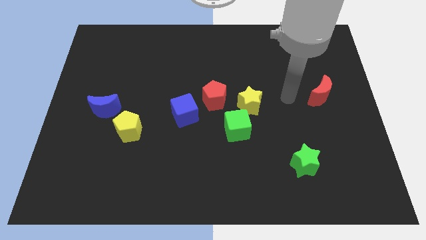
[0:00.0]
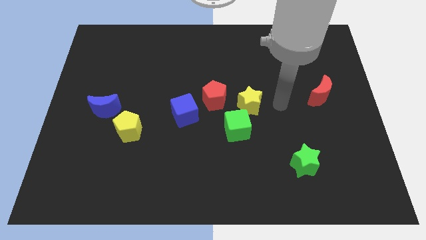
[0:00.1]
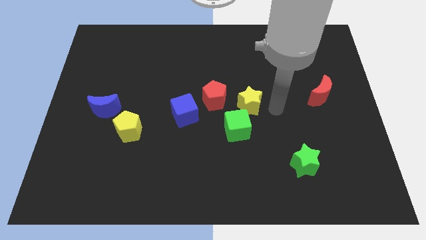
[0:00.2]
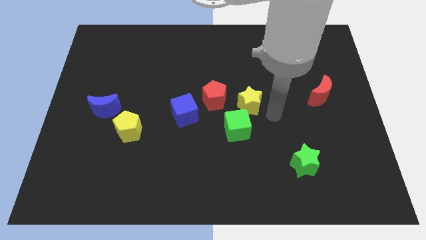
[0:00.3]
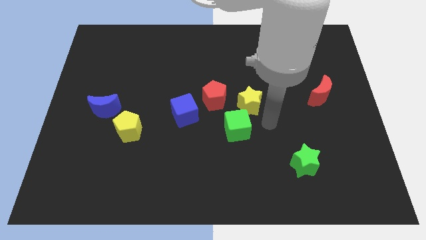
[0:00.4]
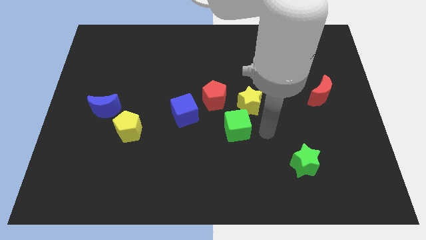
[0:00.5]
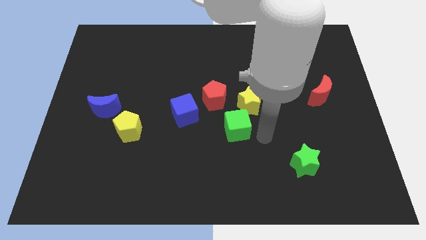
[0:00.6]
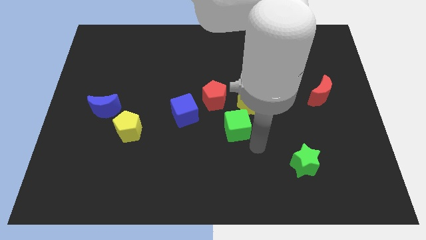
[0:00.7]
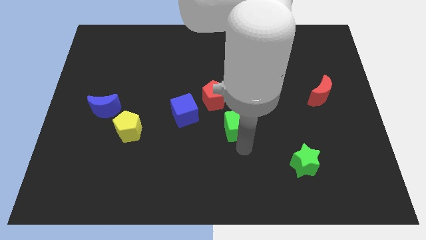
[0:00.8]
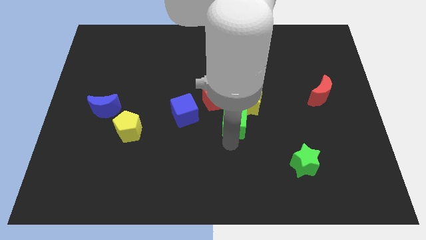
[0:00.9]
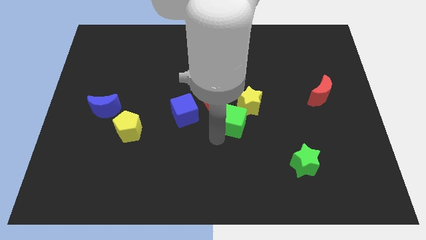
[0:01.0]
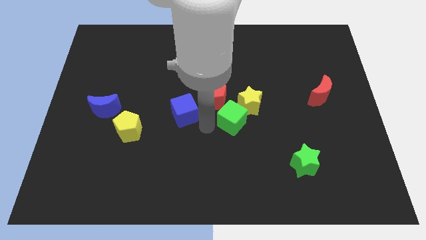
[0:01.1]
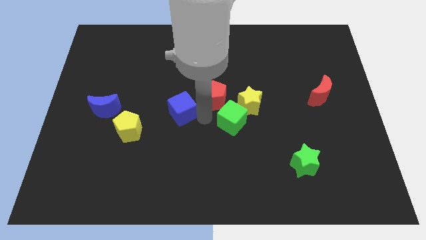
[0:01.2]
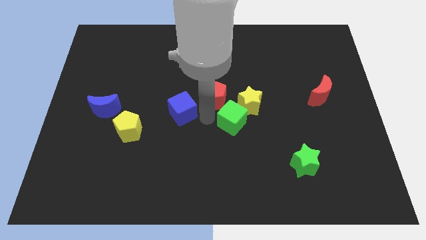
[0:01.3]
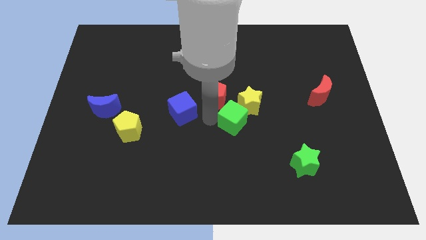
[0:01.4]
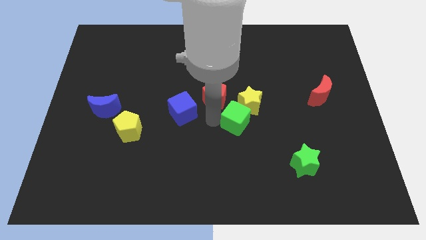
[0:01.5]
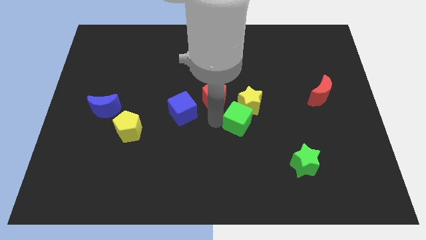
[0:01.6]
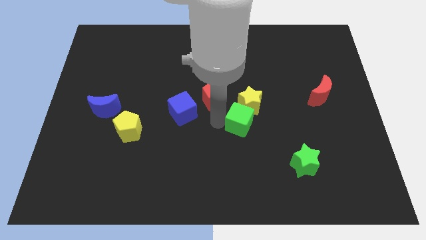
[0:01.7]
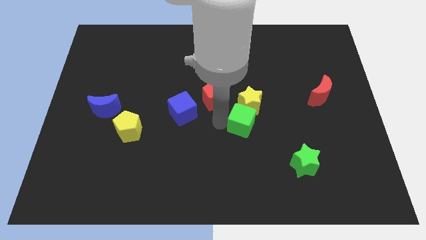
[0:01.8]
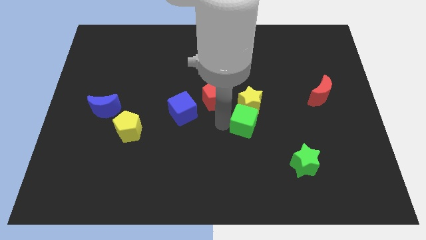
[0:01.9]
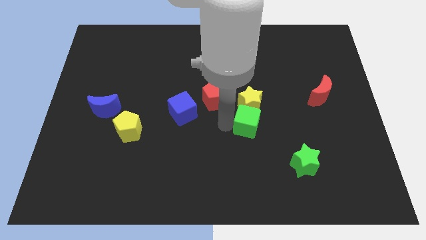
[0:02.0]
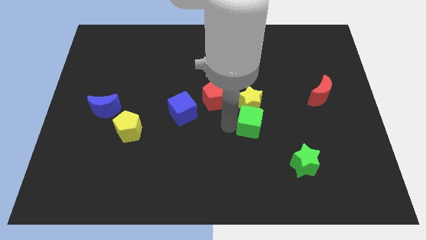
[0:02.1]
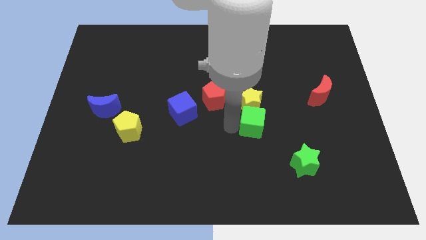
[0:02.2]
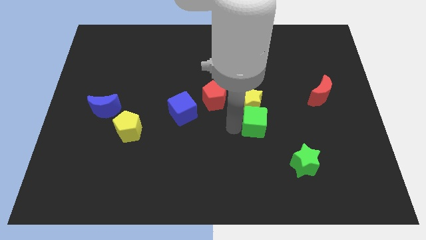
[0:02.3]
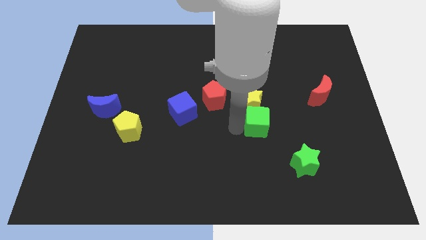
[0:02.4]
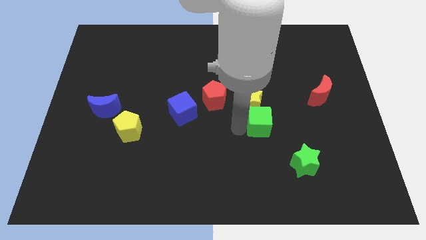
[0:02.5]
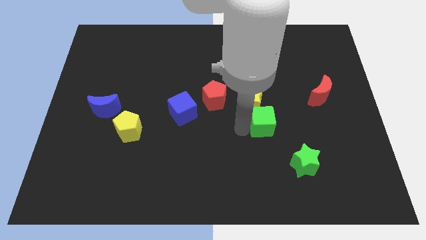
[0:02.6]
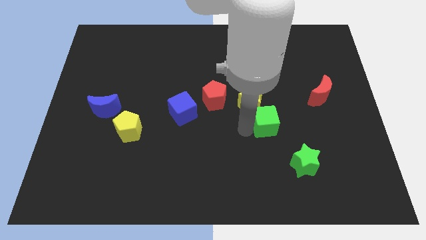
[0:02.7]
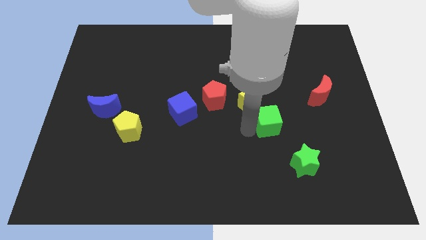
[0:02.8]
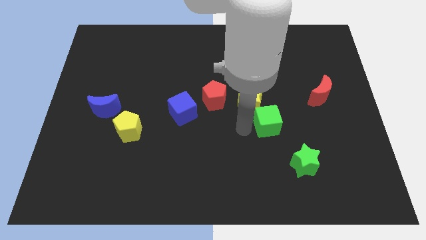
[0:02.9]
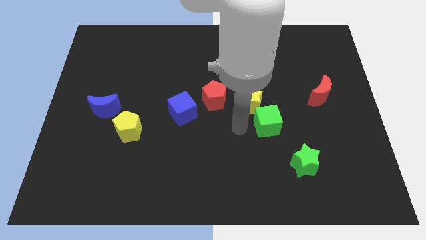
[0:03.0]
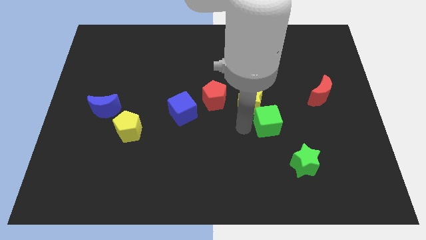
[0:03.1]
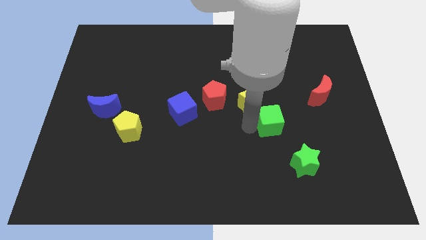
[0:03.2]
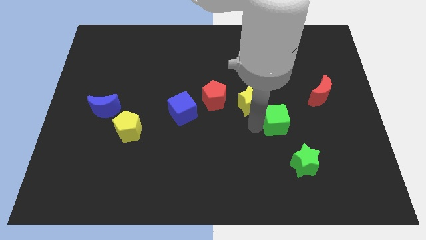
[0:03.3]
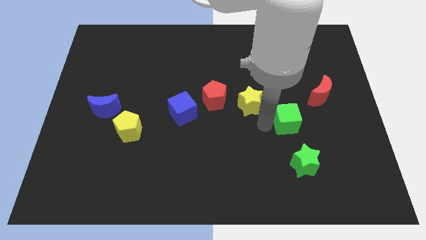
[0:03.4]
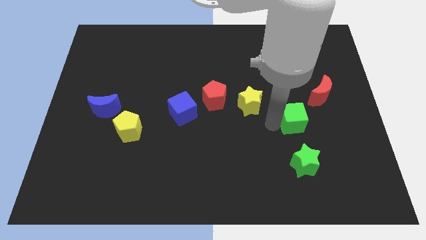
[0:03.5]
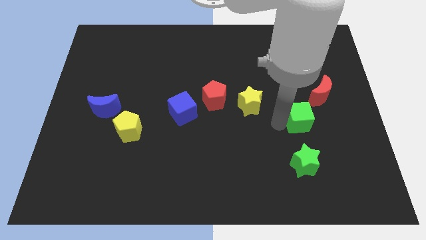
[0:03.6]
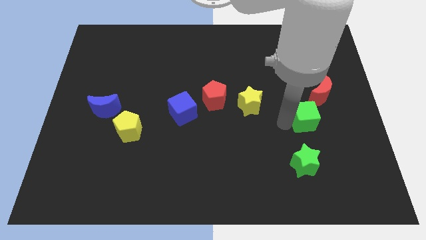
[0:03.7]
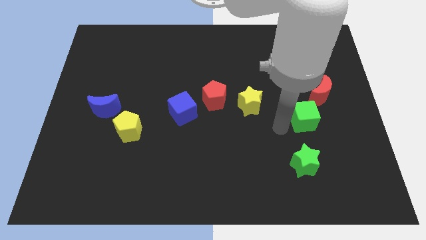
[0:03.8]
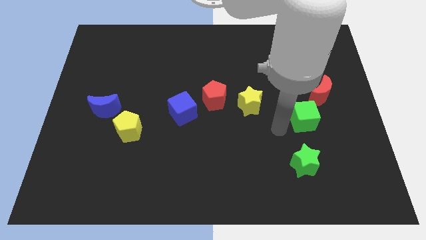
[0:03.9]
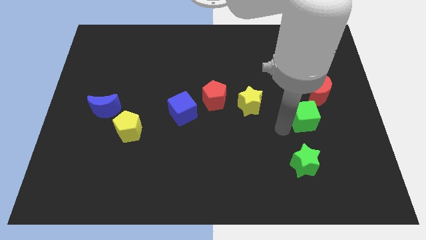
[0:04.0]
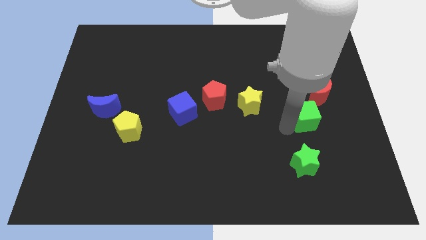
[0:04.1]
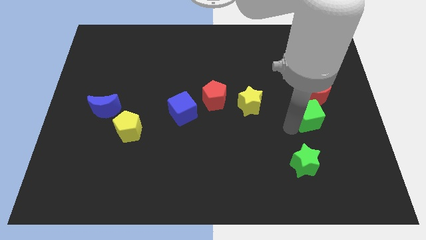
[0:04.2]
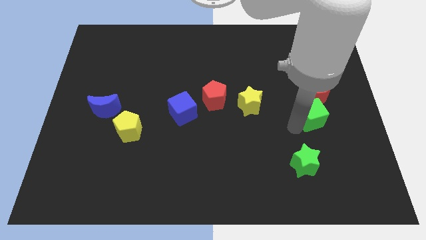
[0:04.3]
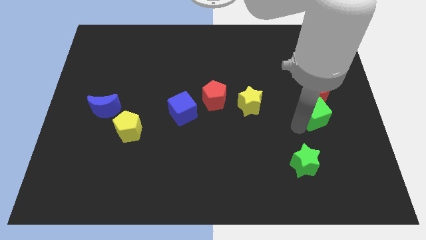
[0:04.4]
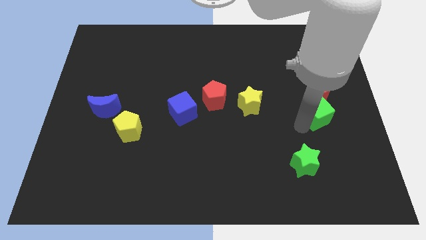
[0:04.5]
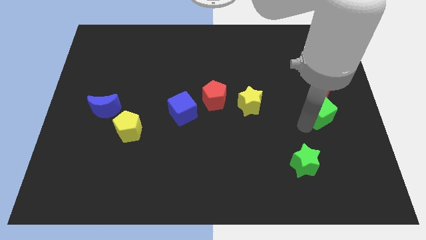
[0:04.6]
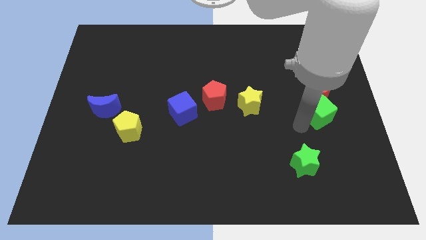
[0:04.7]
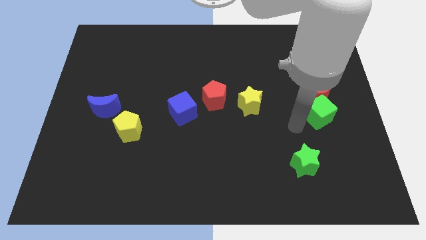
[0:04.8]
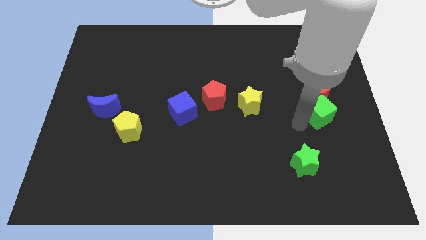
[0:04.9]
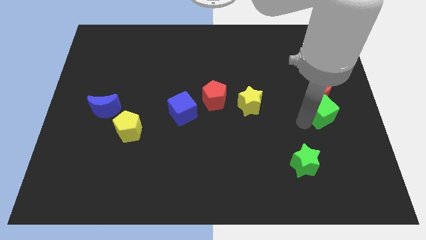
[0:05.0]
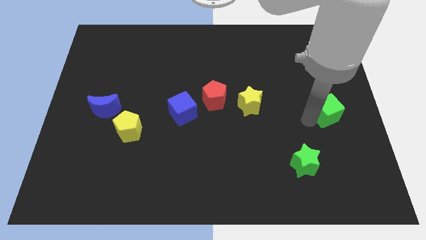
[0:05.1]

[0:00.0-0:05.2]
slide the green cube to the right side
